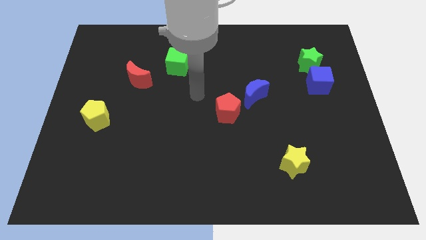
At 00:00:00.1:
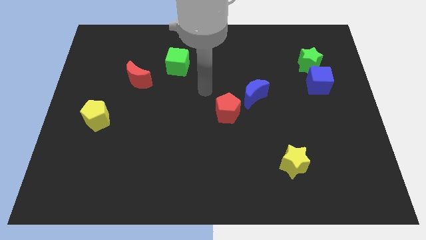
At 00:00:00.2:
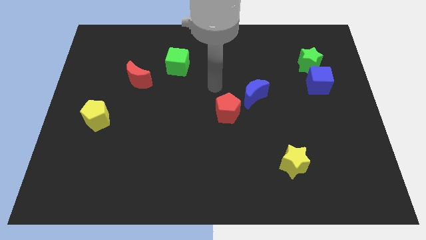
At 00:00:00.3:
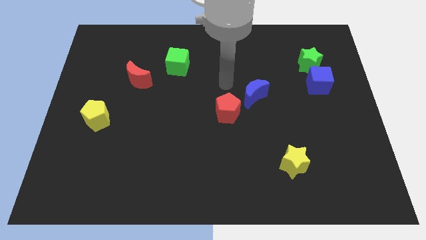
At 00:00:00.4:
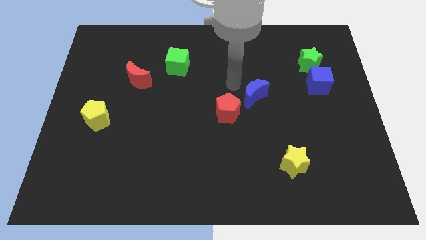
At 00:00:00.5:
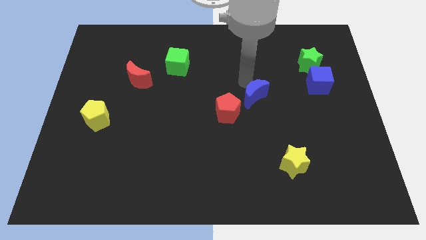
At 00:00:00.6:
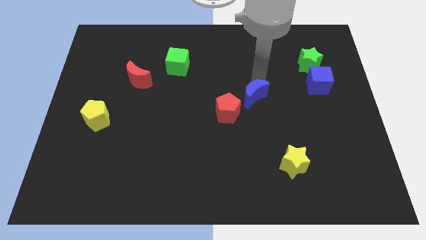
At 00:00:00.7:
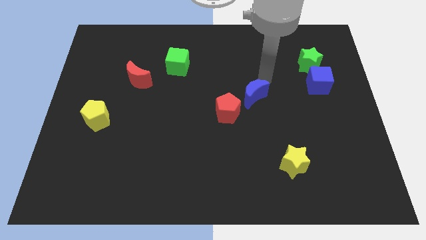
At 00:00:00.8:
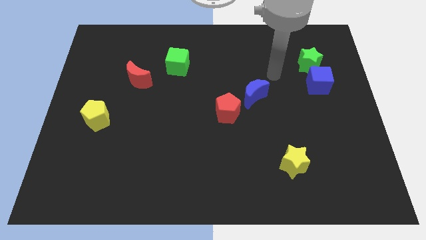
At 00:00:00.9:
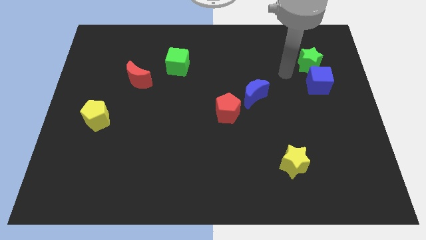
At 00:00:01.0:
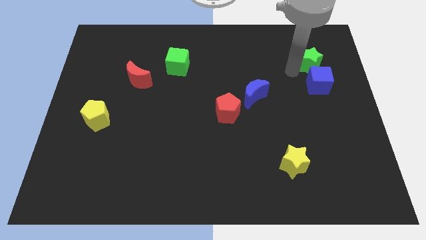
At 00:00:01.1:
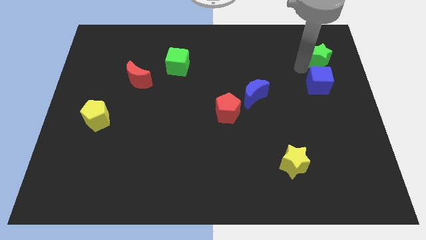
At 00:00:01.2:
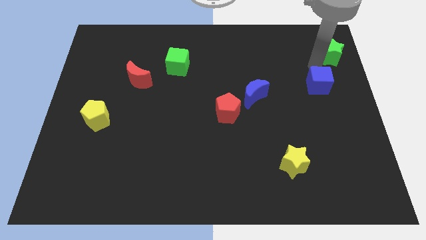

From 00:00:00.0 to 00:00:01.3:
separate the blue cube from the green star

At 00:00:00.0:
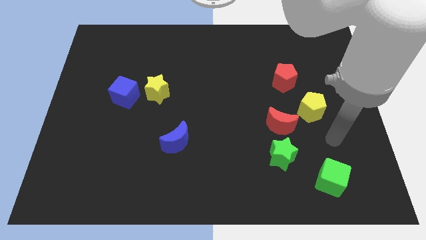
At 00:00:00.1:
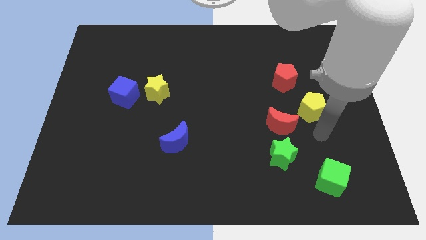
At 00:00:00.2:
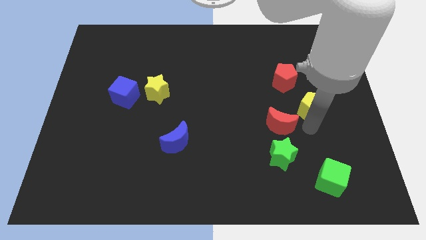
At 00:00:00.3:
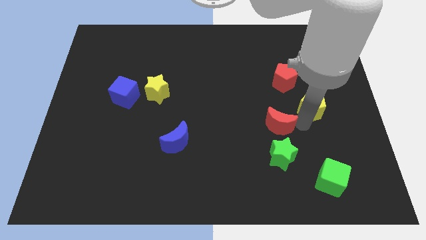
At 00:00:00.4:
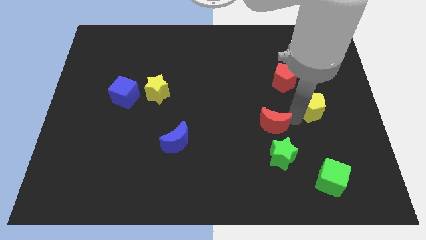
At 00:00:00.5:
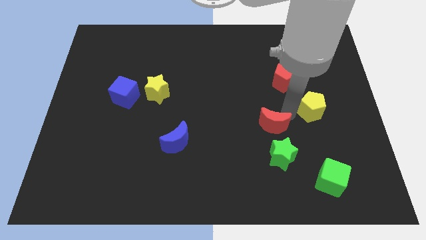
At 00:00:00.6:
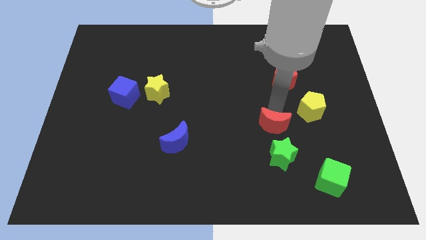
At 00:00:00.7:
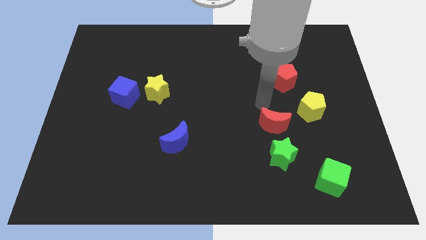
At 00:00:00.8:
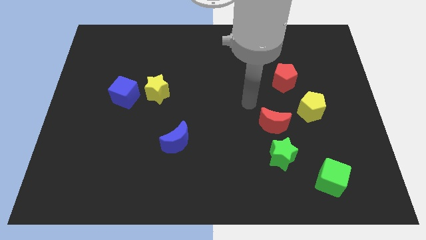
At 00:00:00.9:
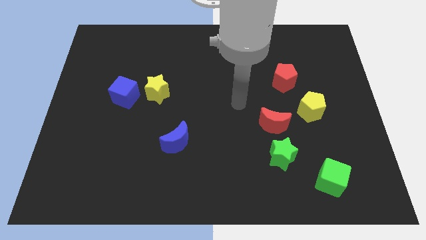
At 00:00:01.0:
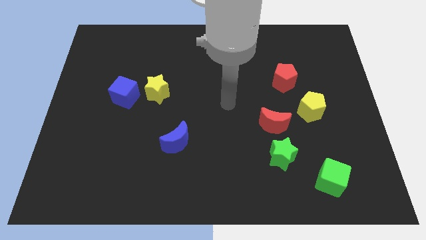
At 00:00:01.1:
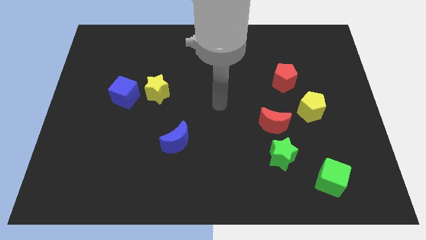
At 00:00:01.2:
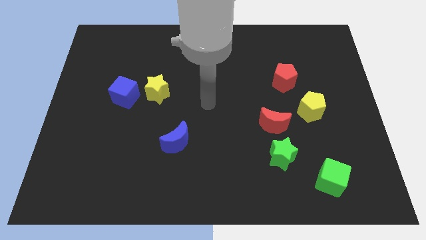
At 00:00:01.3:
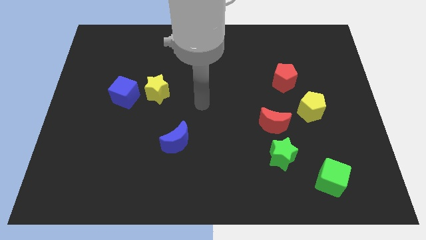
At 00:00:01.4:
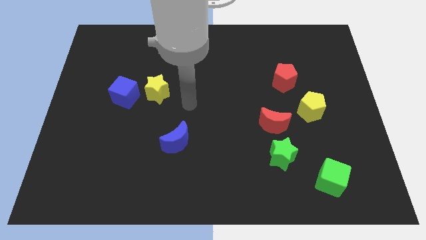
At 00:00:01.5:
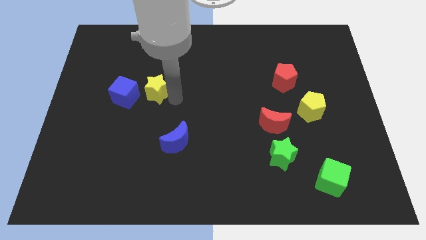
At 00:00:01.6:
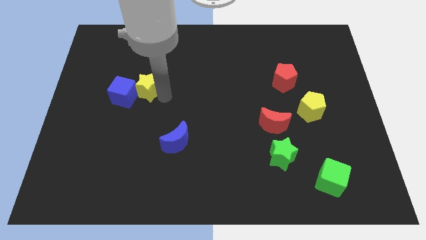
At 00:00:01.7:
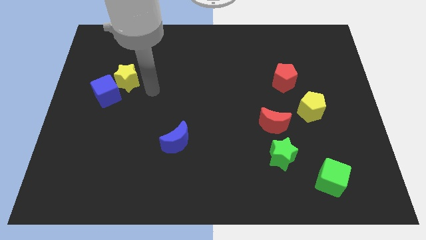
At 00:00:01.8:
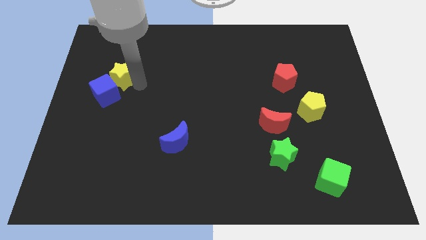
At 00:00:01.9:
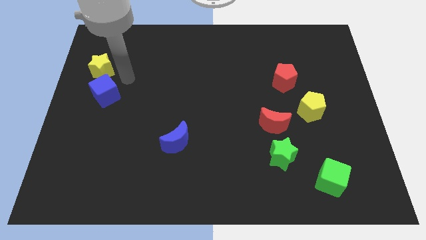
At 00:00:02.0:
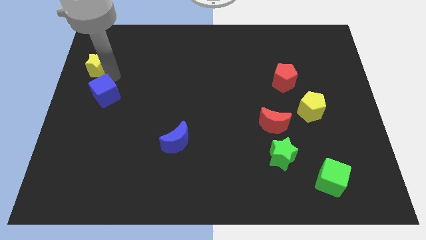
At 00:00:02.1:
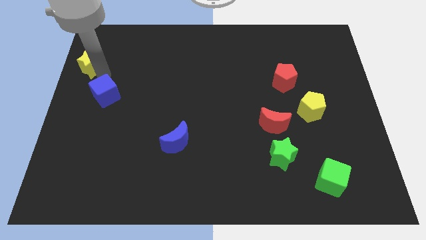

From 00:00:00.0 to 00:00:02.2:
separate the blue cube from the yellow star

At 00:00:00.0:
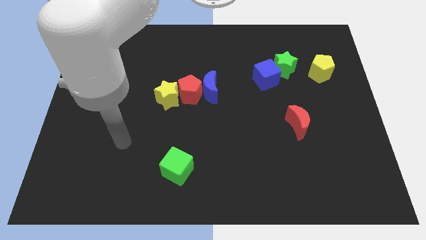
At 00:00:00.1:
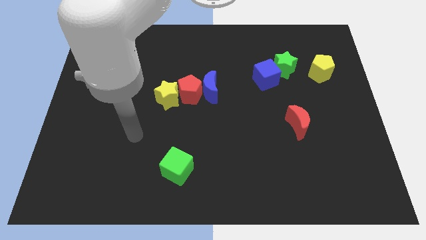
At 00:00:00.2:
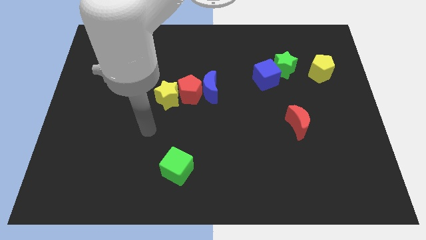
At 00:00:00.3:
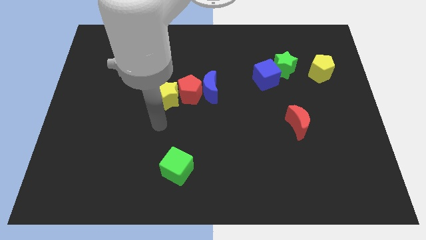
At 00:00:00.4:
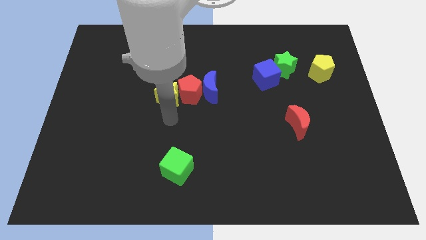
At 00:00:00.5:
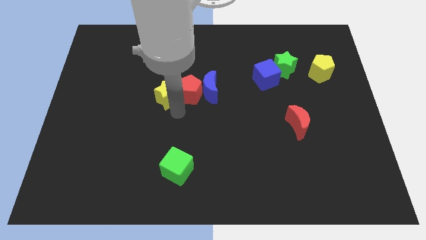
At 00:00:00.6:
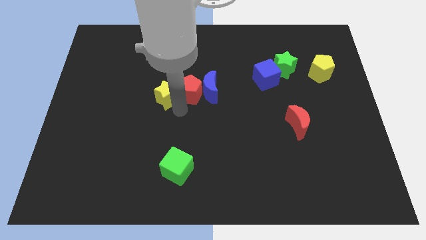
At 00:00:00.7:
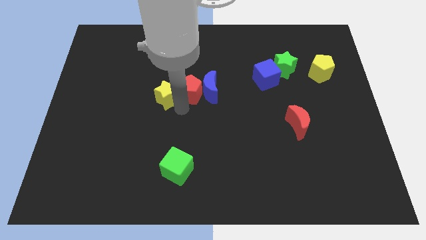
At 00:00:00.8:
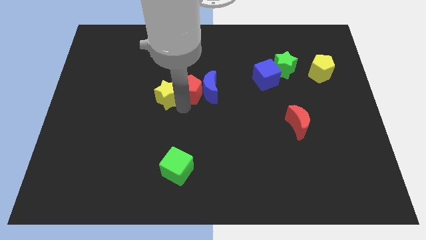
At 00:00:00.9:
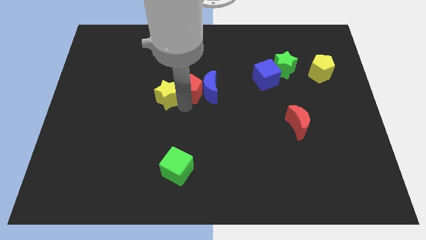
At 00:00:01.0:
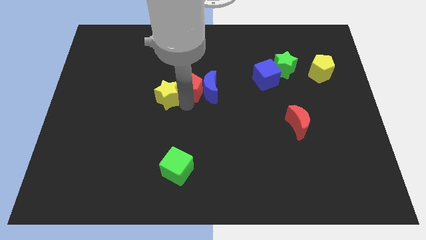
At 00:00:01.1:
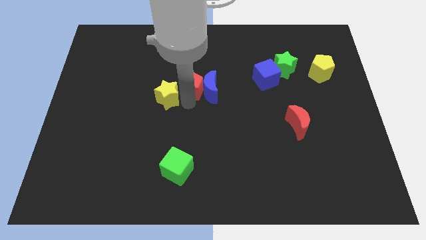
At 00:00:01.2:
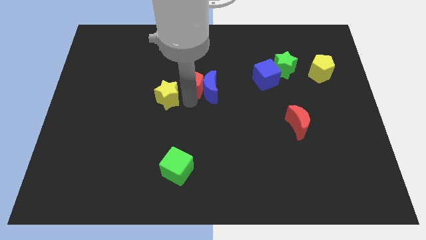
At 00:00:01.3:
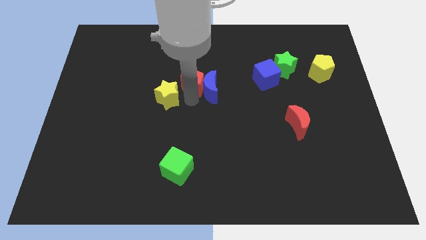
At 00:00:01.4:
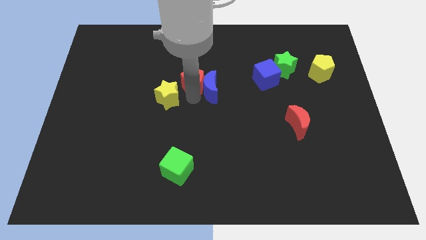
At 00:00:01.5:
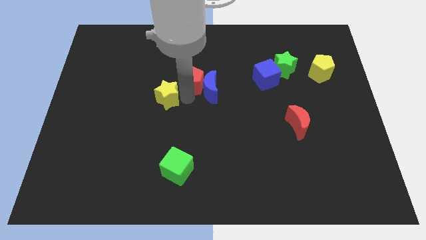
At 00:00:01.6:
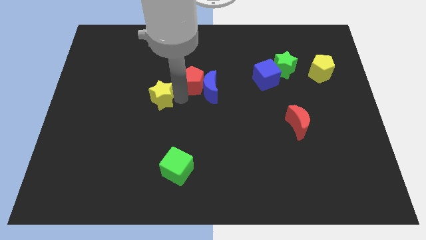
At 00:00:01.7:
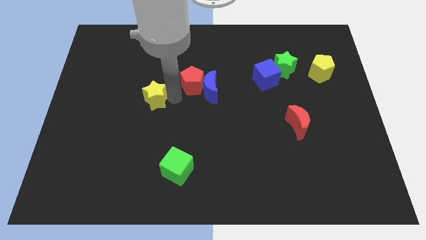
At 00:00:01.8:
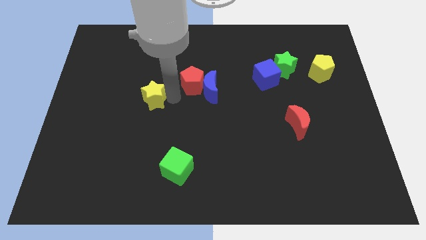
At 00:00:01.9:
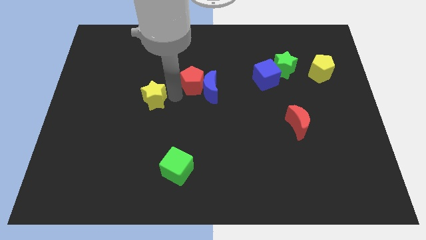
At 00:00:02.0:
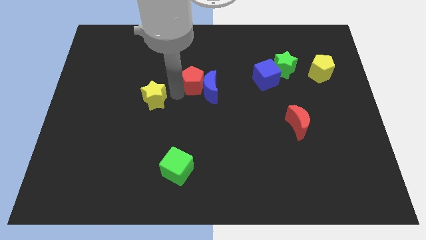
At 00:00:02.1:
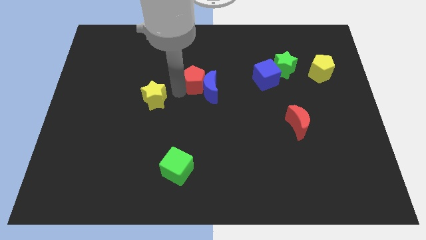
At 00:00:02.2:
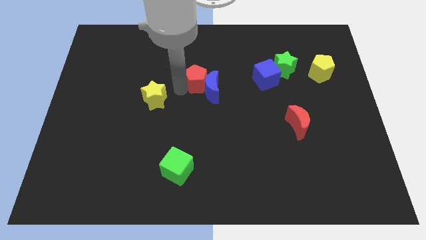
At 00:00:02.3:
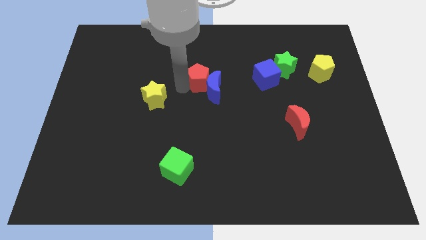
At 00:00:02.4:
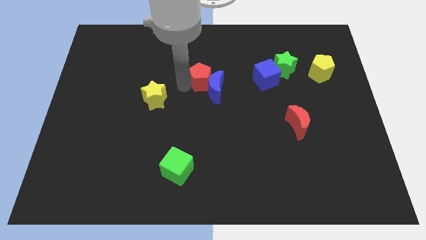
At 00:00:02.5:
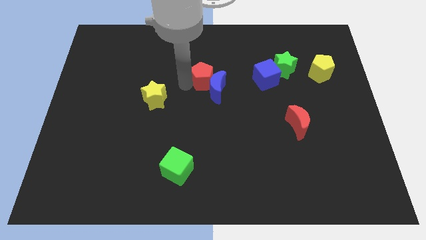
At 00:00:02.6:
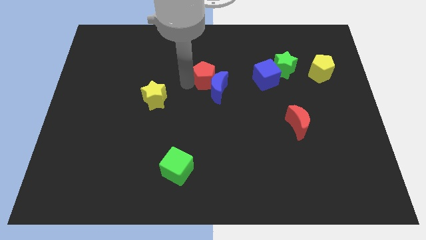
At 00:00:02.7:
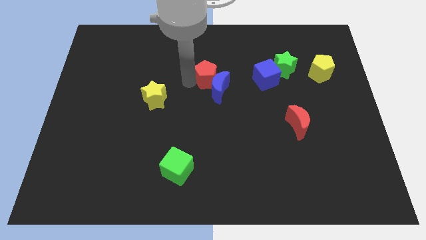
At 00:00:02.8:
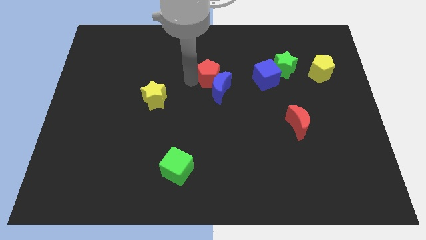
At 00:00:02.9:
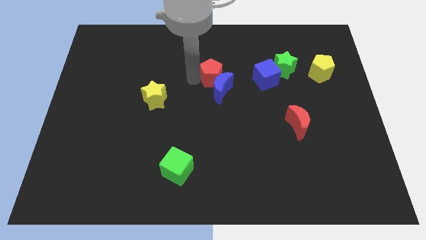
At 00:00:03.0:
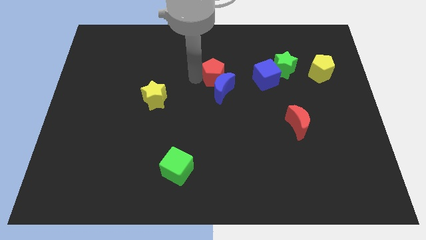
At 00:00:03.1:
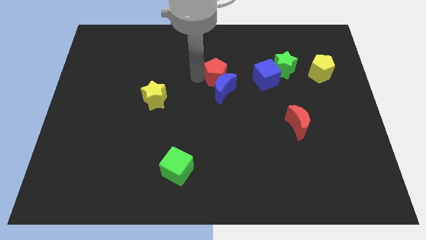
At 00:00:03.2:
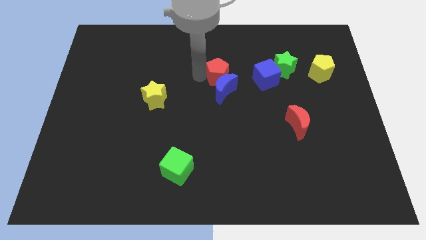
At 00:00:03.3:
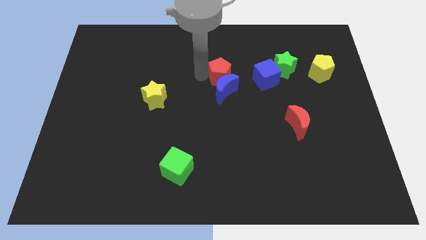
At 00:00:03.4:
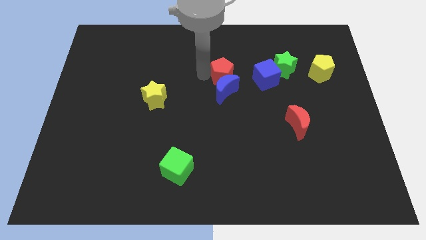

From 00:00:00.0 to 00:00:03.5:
separate the red pentagon from the blue moon and yellow star

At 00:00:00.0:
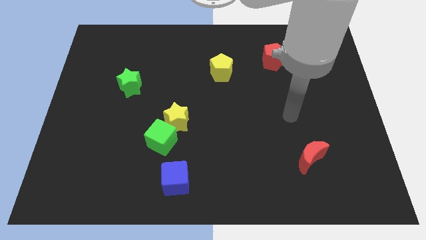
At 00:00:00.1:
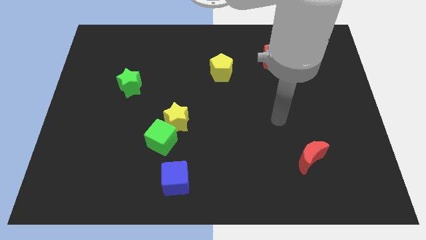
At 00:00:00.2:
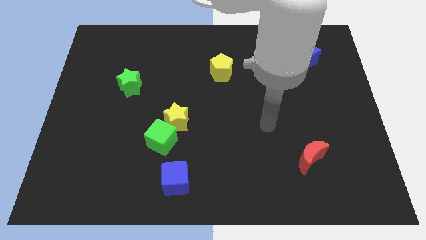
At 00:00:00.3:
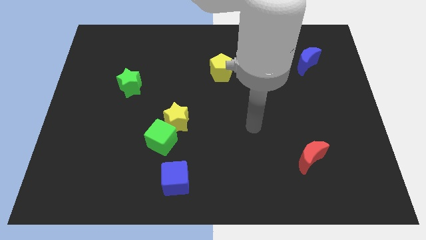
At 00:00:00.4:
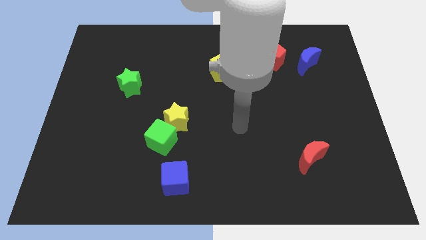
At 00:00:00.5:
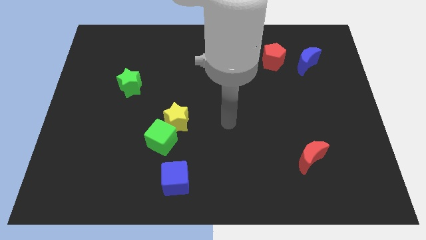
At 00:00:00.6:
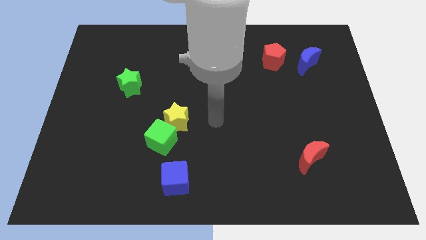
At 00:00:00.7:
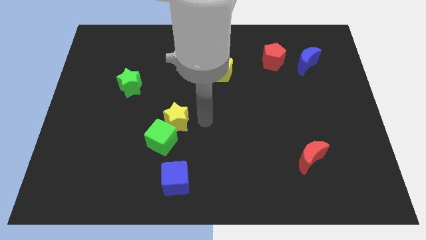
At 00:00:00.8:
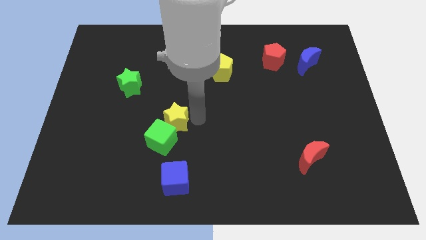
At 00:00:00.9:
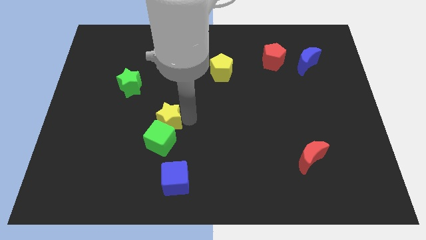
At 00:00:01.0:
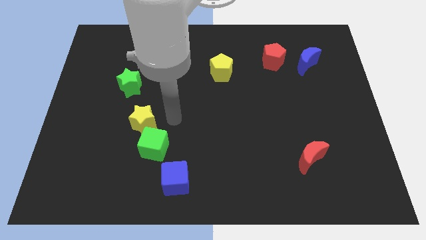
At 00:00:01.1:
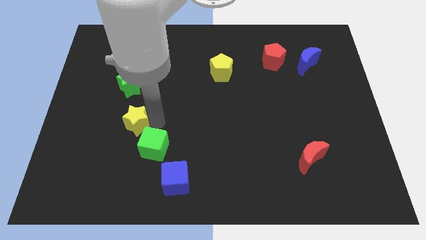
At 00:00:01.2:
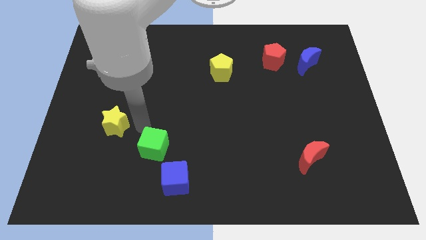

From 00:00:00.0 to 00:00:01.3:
move the green cube away from the yellow star

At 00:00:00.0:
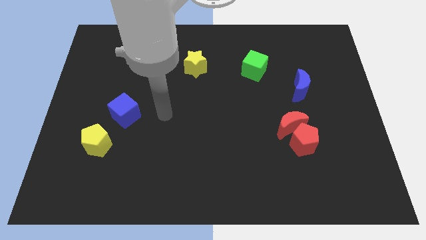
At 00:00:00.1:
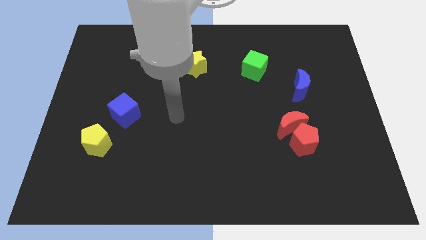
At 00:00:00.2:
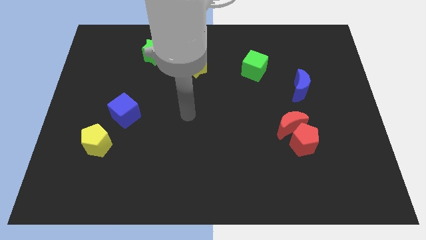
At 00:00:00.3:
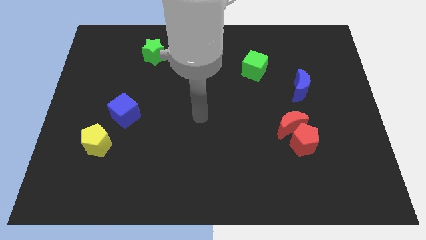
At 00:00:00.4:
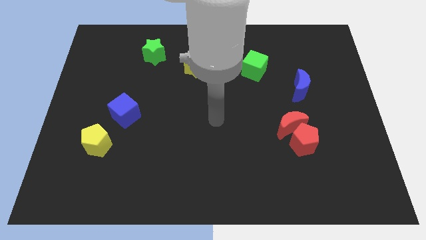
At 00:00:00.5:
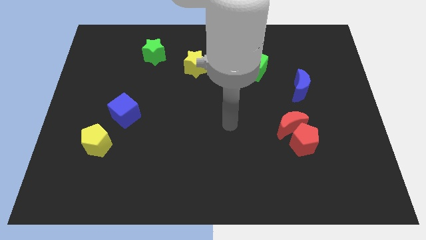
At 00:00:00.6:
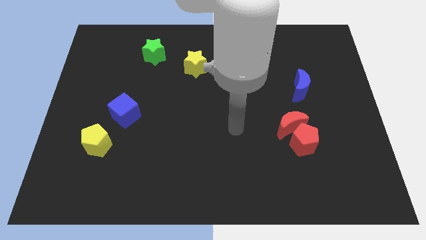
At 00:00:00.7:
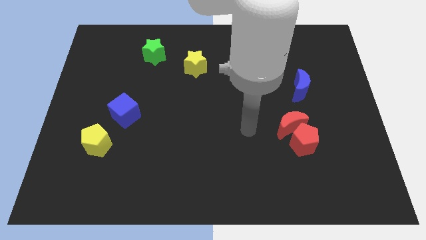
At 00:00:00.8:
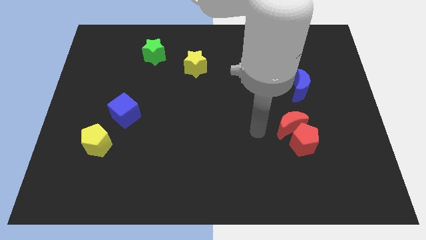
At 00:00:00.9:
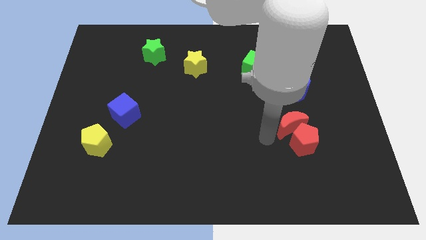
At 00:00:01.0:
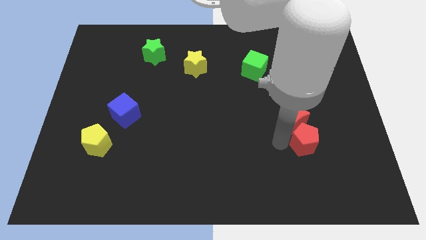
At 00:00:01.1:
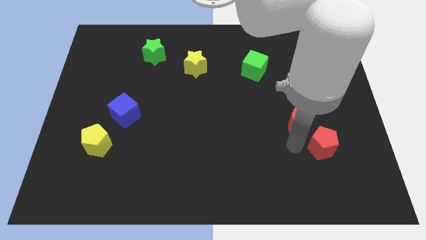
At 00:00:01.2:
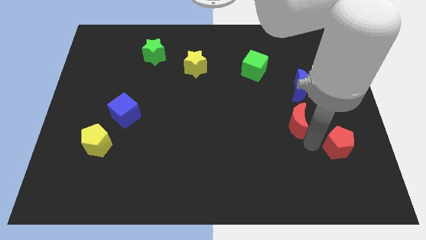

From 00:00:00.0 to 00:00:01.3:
pull the red moon apart from the red pentagon
